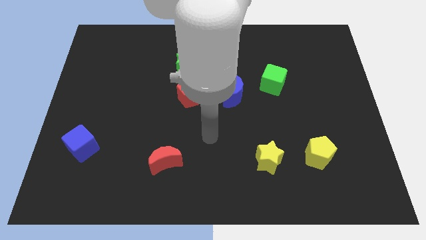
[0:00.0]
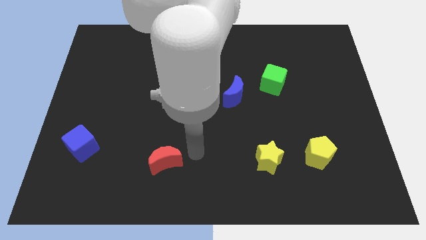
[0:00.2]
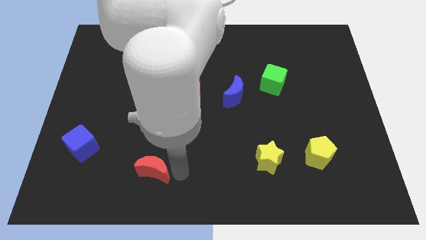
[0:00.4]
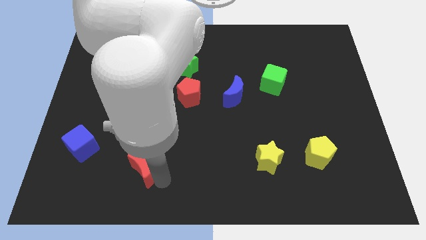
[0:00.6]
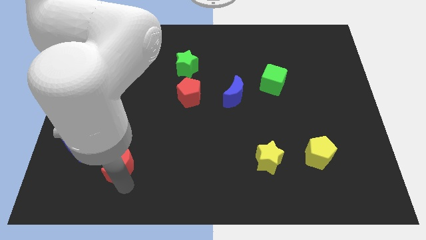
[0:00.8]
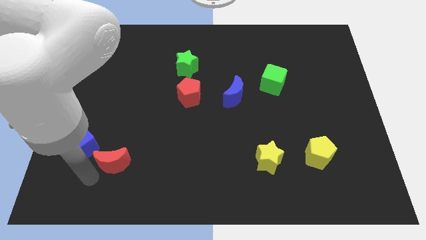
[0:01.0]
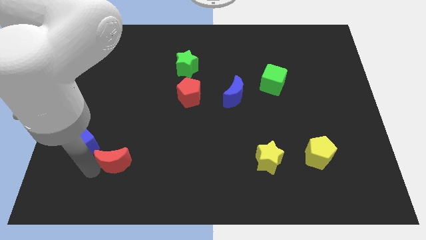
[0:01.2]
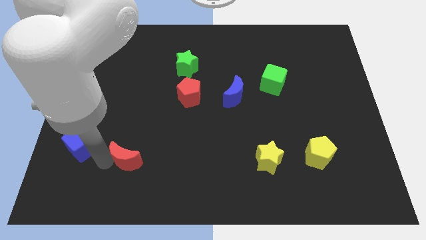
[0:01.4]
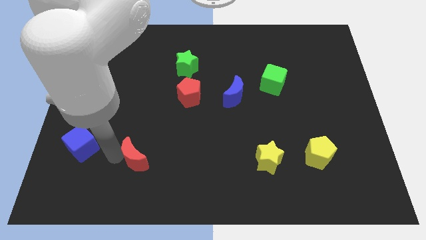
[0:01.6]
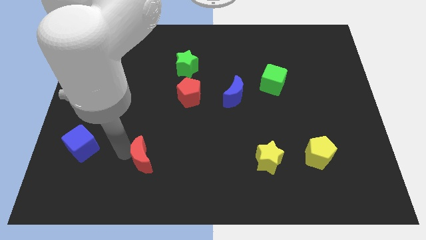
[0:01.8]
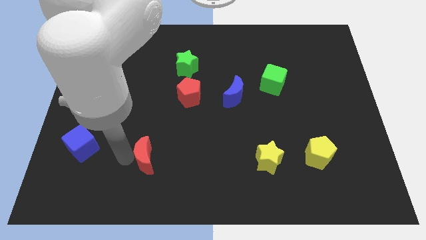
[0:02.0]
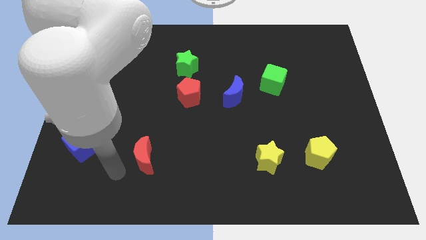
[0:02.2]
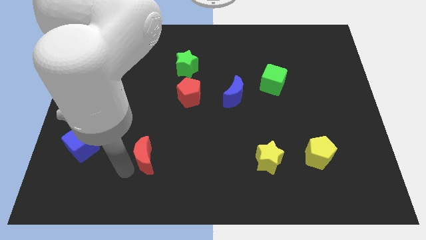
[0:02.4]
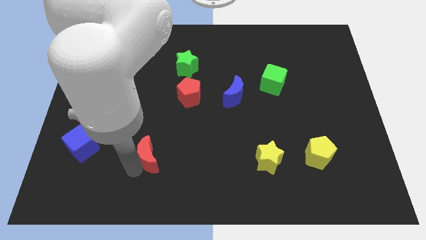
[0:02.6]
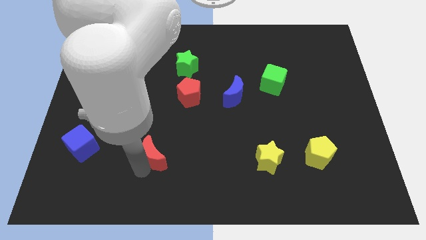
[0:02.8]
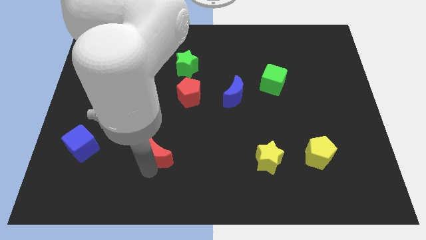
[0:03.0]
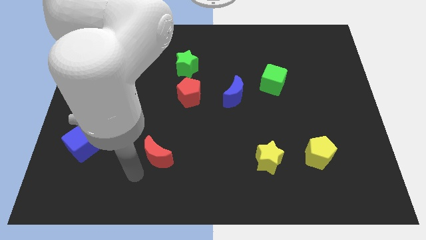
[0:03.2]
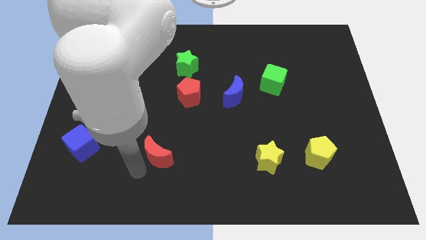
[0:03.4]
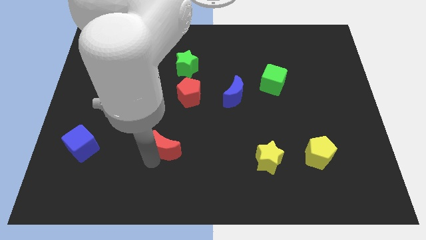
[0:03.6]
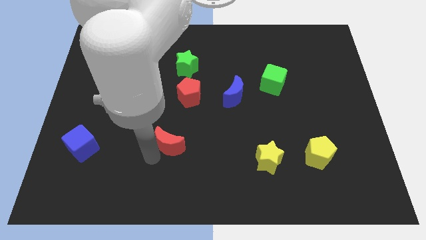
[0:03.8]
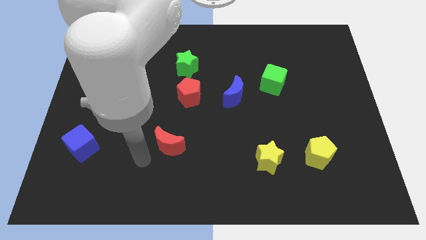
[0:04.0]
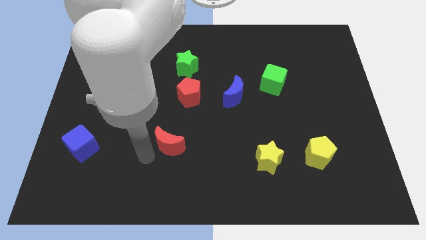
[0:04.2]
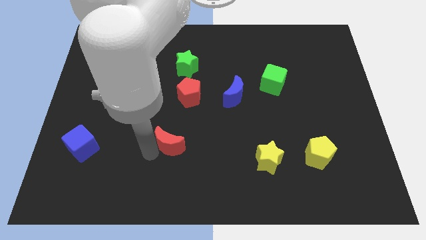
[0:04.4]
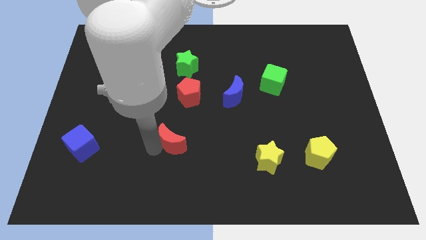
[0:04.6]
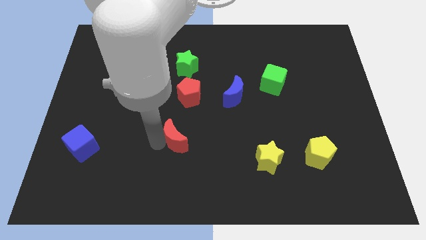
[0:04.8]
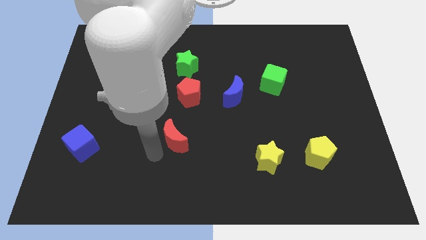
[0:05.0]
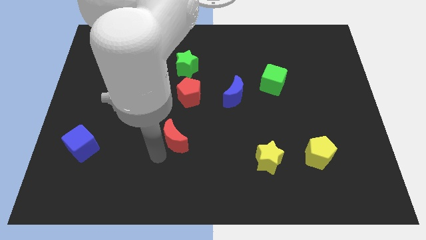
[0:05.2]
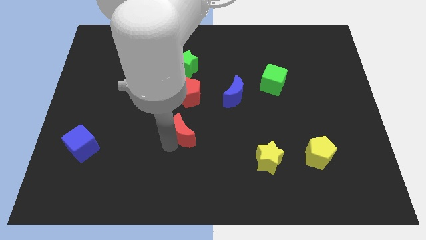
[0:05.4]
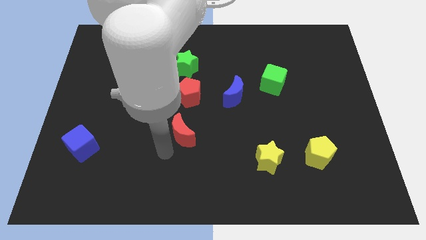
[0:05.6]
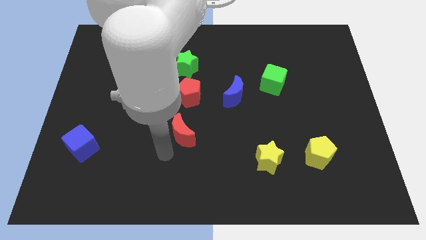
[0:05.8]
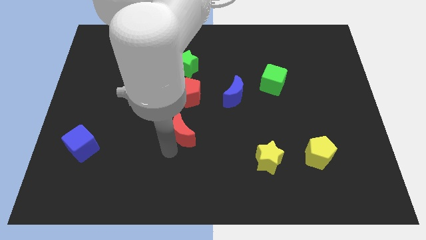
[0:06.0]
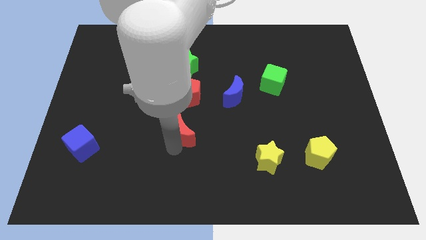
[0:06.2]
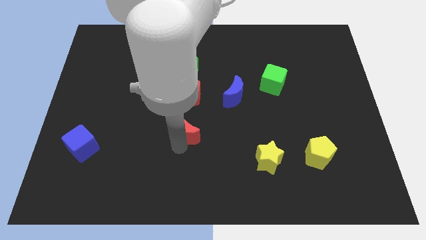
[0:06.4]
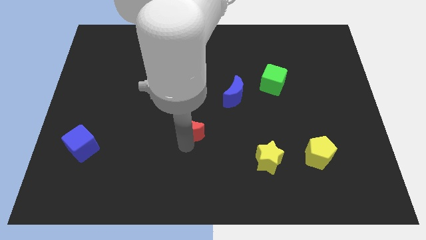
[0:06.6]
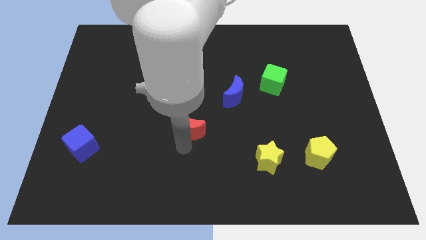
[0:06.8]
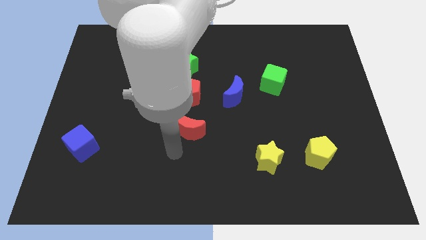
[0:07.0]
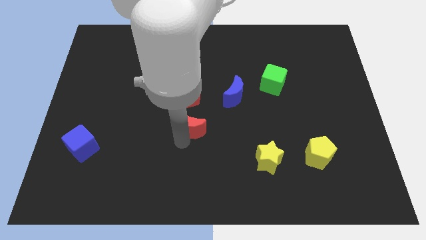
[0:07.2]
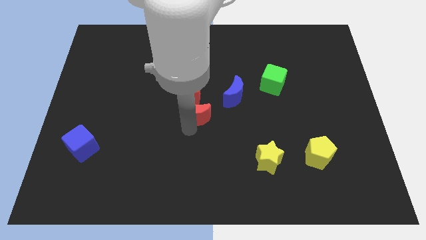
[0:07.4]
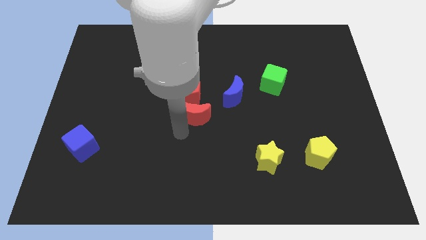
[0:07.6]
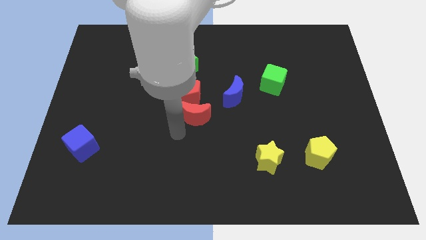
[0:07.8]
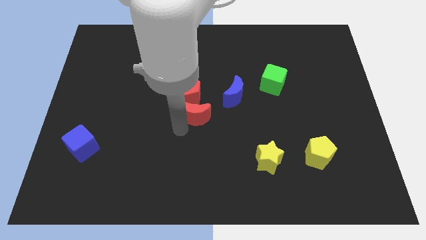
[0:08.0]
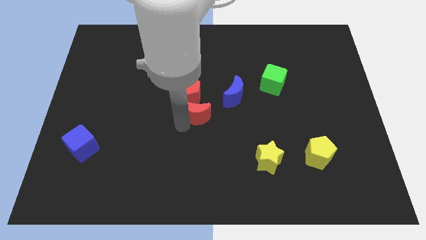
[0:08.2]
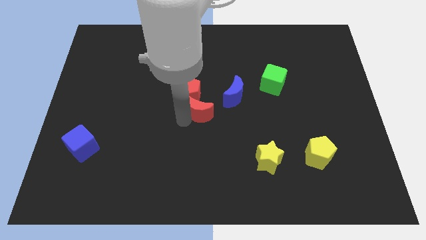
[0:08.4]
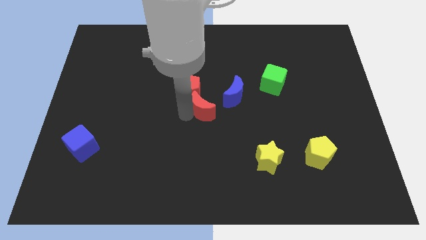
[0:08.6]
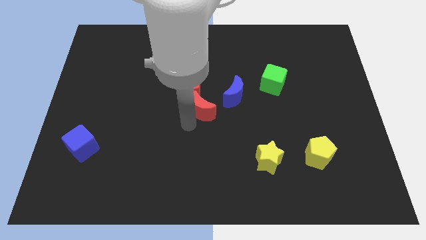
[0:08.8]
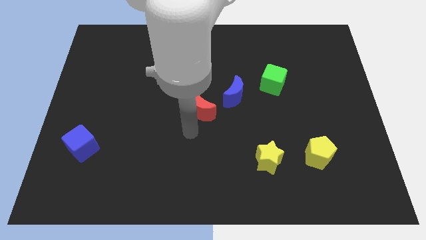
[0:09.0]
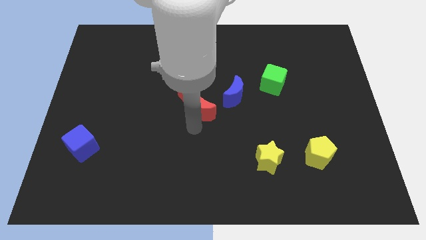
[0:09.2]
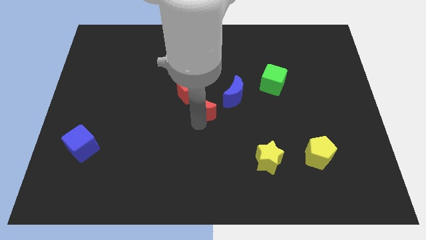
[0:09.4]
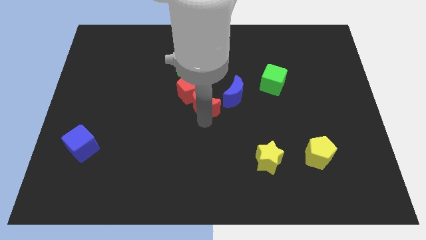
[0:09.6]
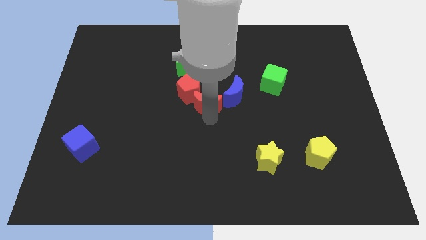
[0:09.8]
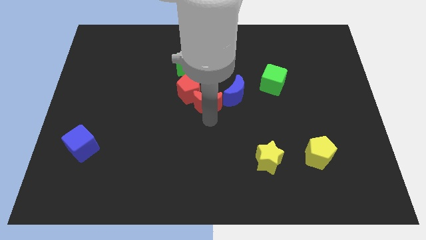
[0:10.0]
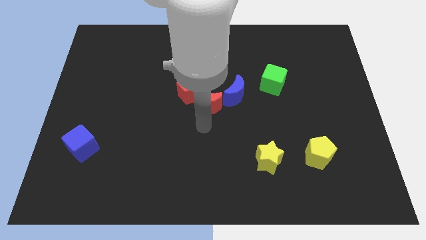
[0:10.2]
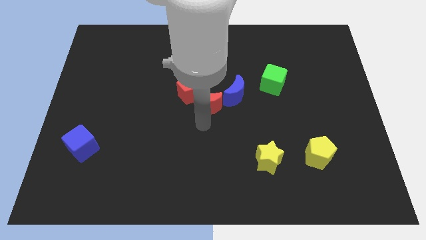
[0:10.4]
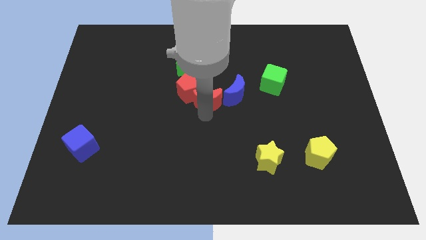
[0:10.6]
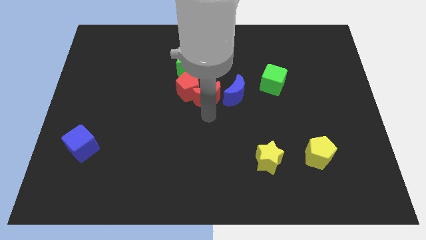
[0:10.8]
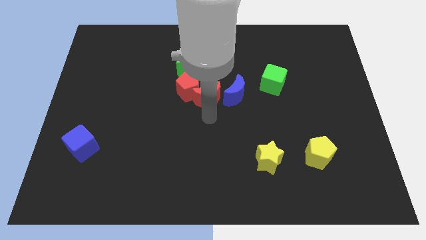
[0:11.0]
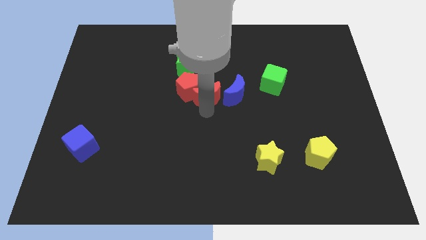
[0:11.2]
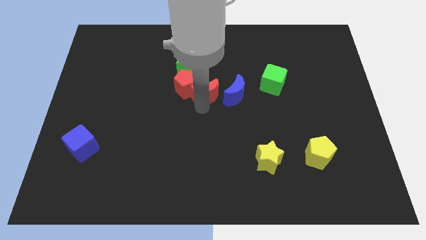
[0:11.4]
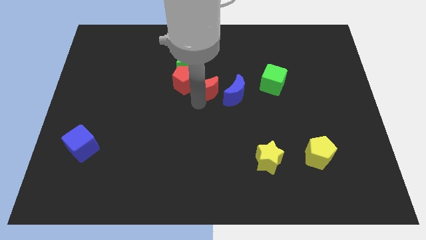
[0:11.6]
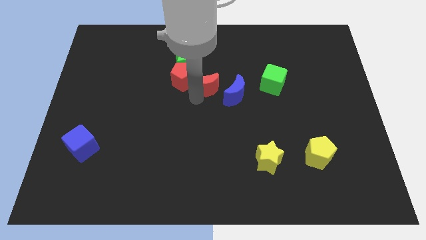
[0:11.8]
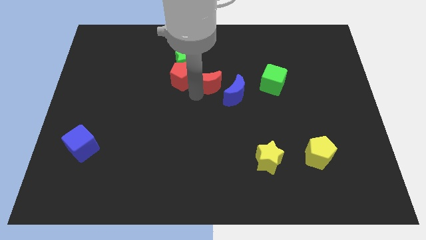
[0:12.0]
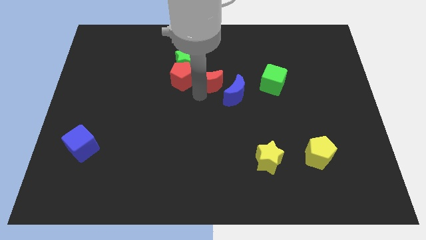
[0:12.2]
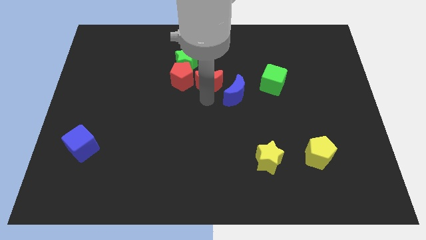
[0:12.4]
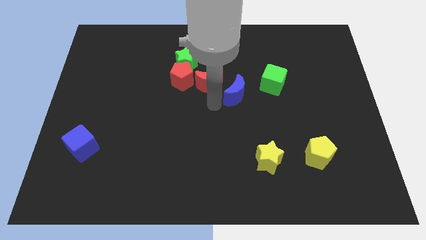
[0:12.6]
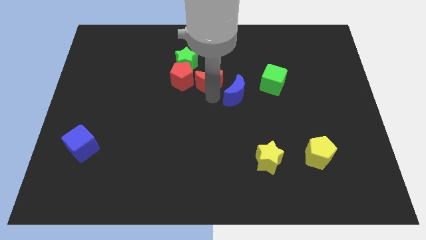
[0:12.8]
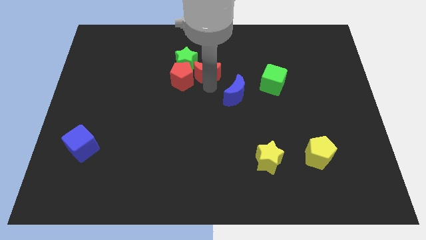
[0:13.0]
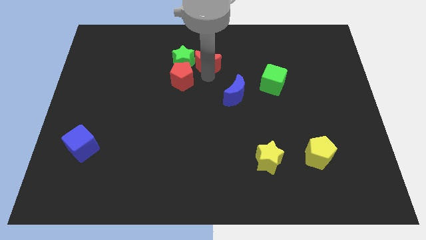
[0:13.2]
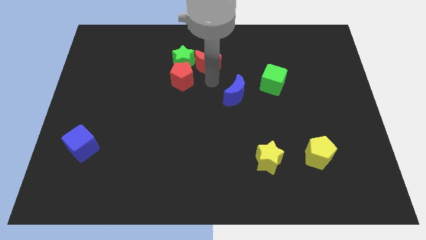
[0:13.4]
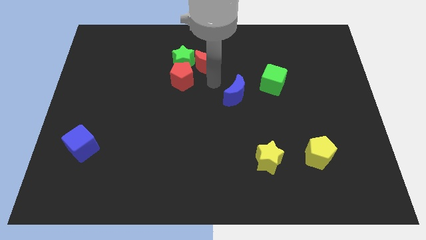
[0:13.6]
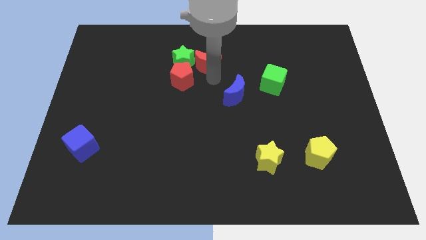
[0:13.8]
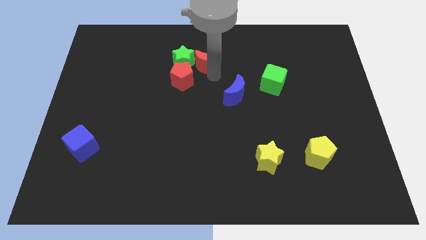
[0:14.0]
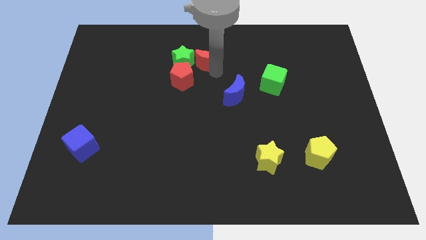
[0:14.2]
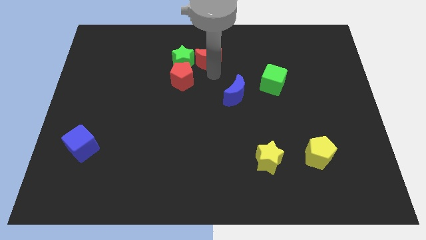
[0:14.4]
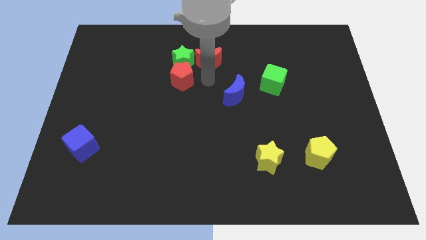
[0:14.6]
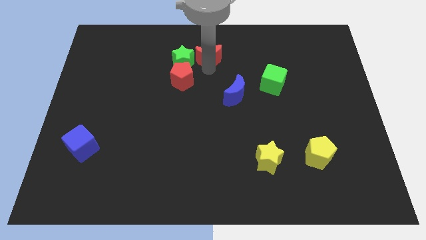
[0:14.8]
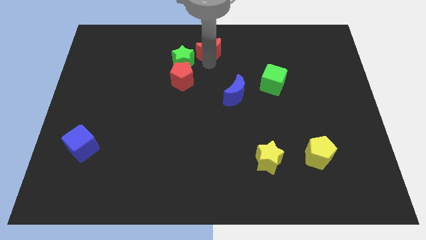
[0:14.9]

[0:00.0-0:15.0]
push the red moon to the top side

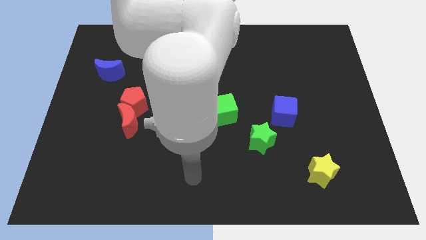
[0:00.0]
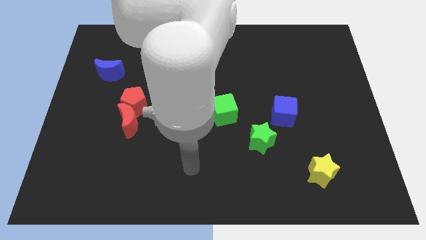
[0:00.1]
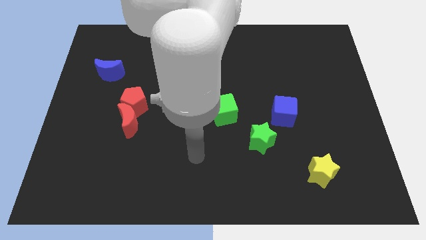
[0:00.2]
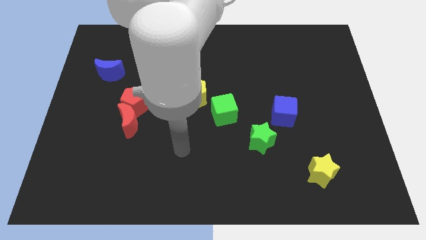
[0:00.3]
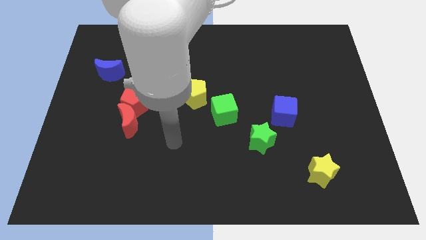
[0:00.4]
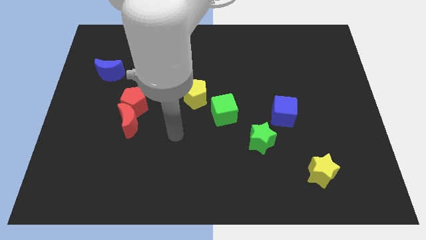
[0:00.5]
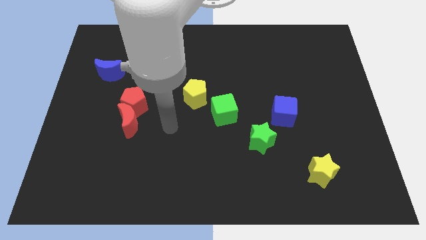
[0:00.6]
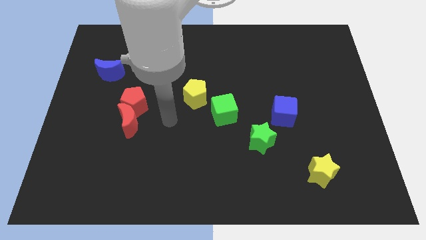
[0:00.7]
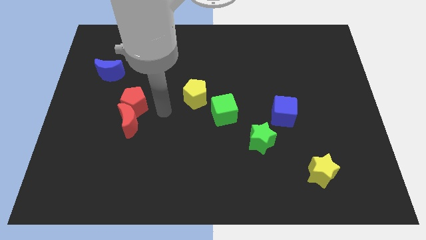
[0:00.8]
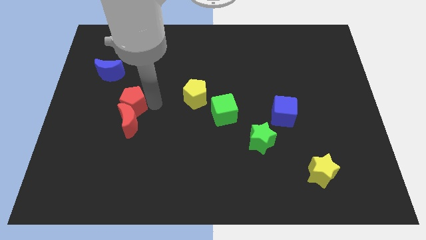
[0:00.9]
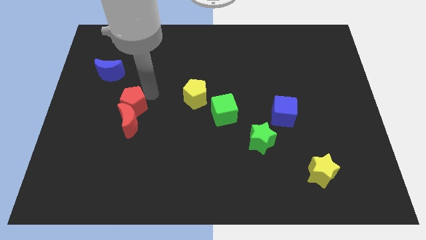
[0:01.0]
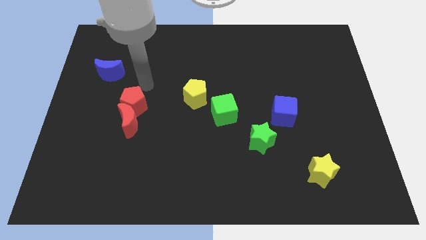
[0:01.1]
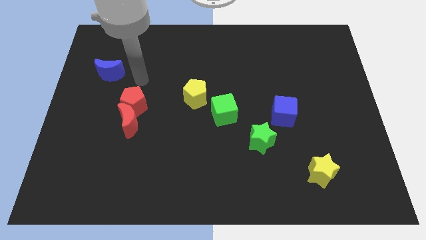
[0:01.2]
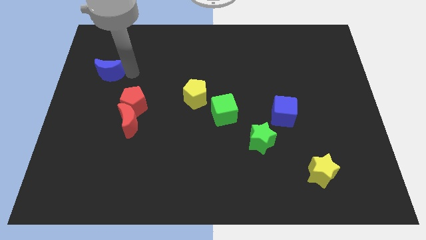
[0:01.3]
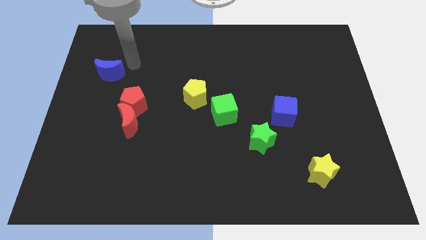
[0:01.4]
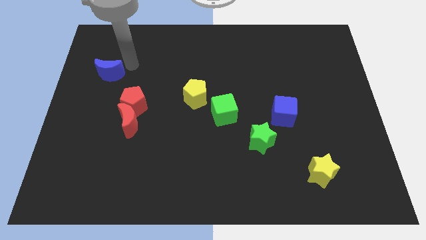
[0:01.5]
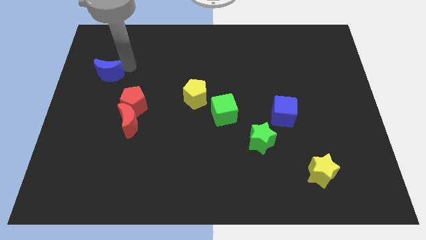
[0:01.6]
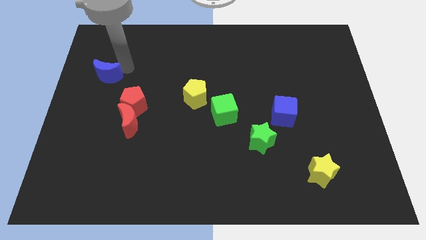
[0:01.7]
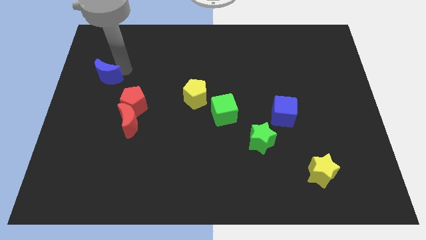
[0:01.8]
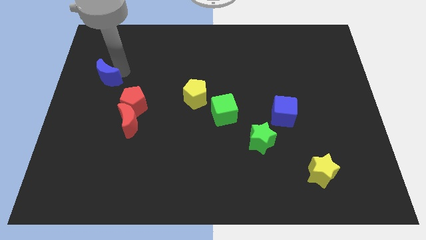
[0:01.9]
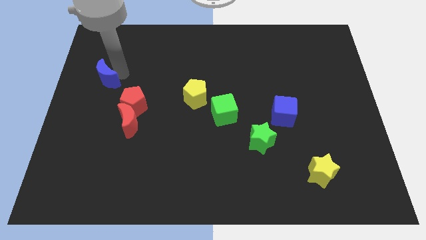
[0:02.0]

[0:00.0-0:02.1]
slide the blue moon to the left side
